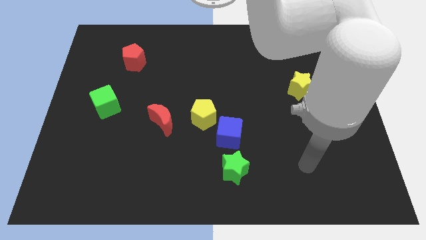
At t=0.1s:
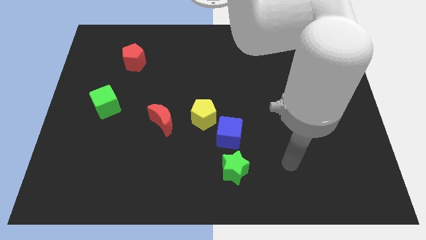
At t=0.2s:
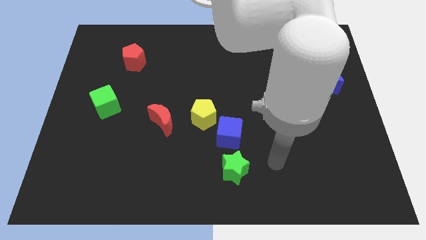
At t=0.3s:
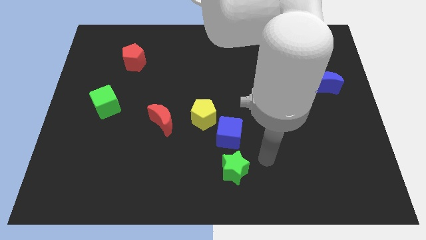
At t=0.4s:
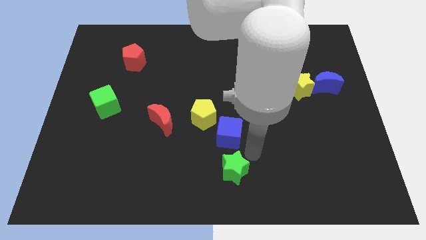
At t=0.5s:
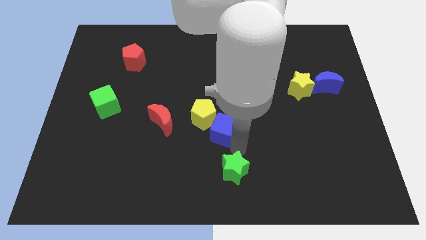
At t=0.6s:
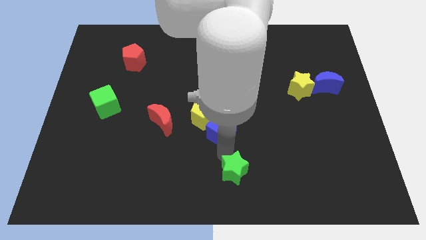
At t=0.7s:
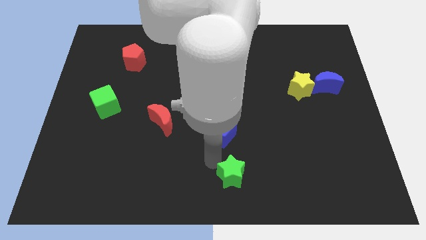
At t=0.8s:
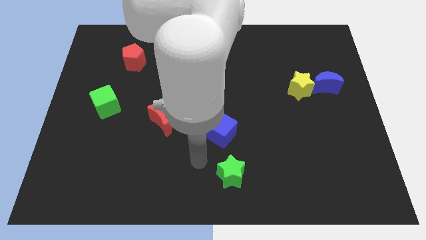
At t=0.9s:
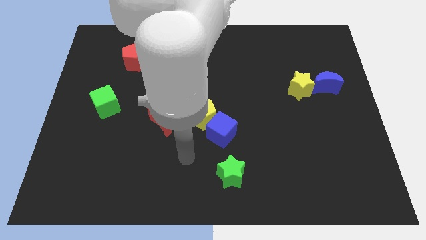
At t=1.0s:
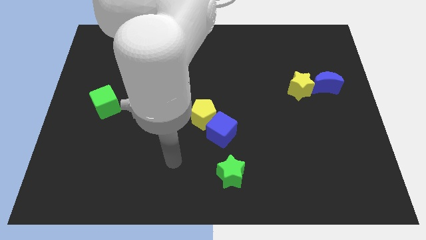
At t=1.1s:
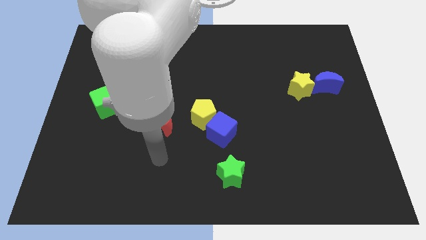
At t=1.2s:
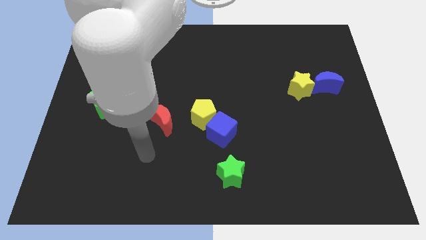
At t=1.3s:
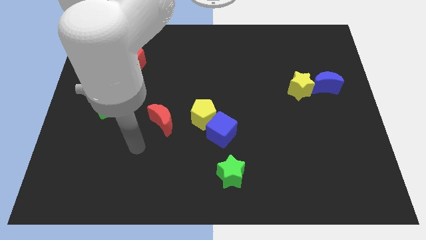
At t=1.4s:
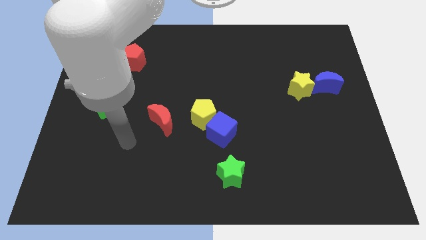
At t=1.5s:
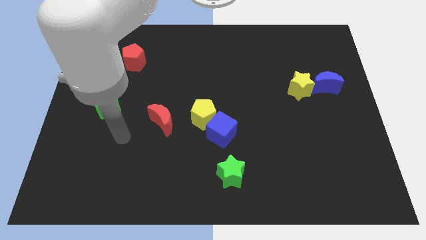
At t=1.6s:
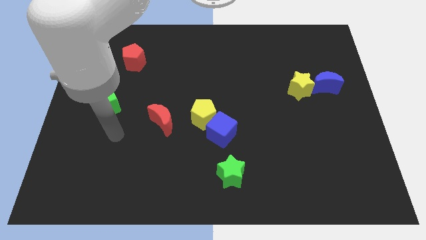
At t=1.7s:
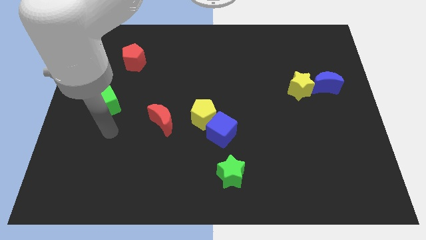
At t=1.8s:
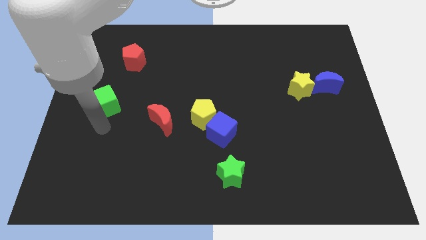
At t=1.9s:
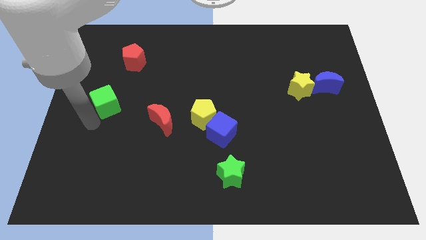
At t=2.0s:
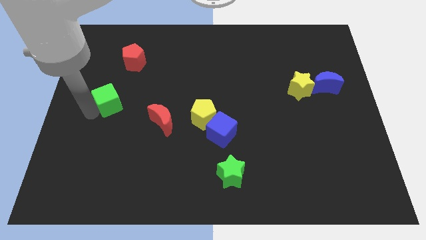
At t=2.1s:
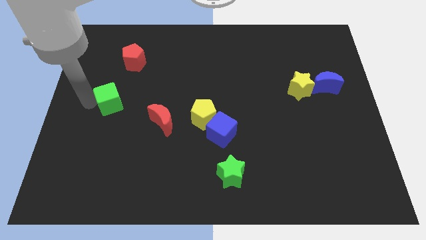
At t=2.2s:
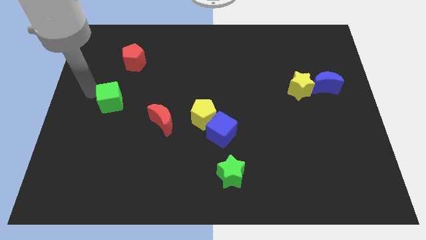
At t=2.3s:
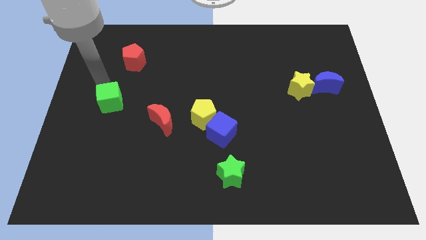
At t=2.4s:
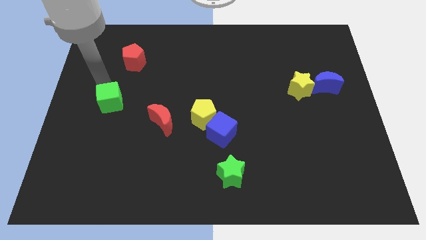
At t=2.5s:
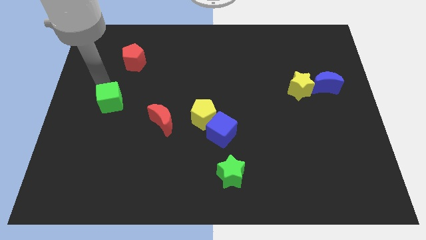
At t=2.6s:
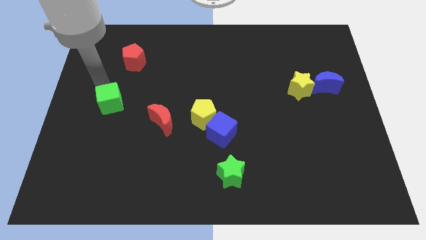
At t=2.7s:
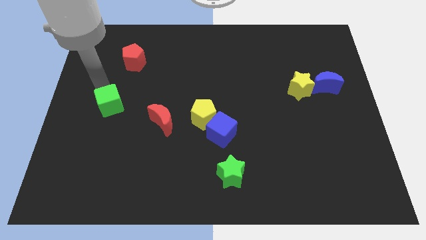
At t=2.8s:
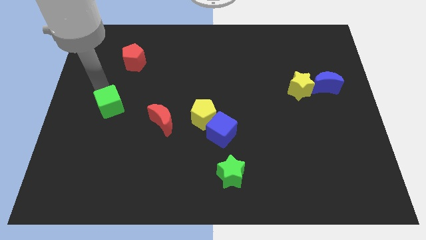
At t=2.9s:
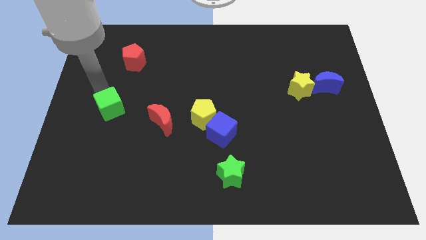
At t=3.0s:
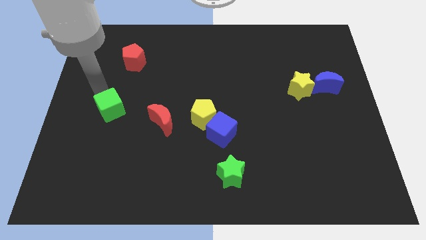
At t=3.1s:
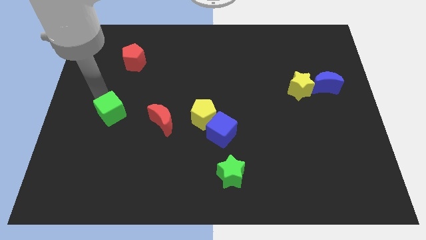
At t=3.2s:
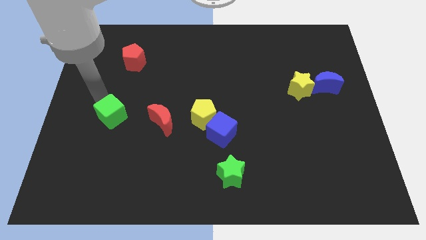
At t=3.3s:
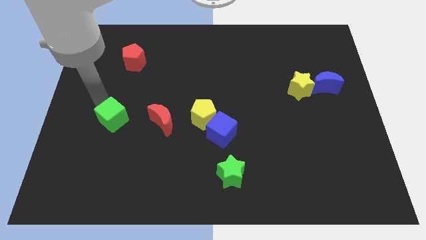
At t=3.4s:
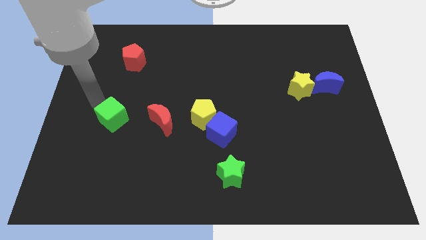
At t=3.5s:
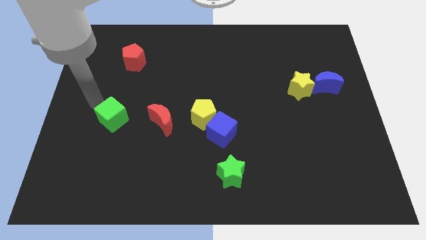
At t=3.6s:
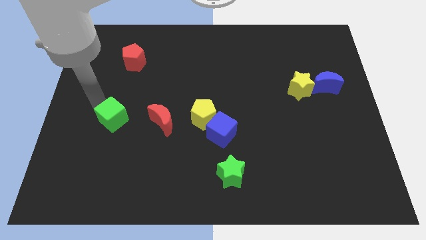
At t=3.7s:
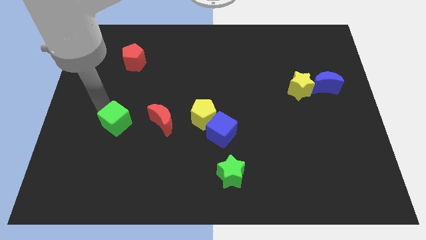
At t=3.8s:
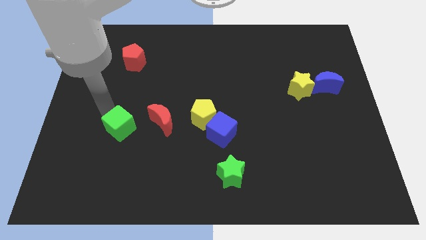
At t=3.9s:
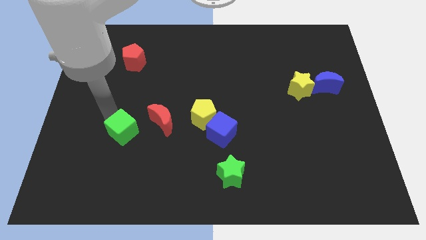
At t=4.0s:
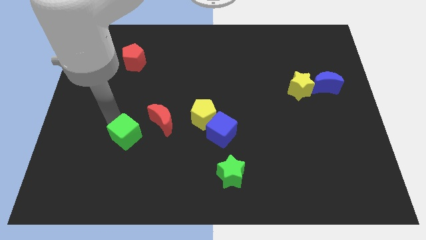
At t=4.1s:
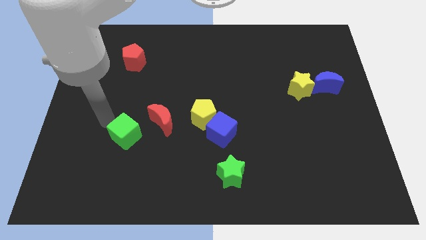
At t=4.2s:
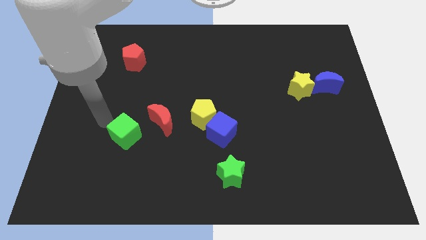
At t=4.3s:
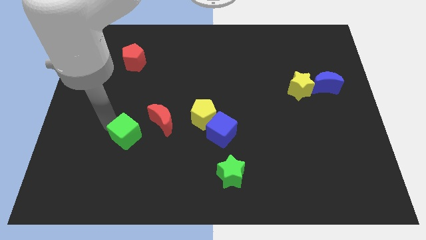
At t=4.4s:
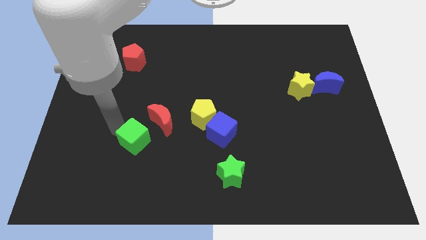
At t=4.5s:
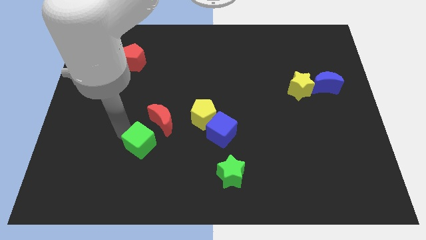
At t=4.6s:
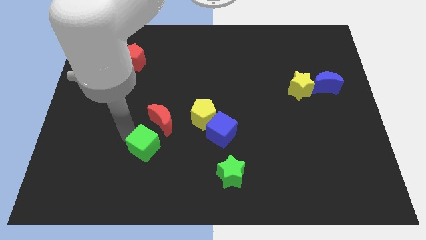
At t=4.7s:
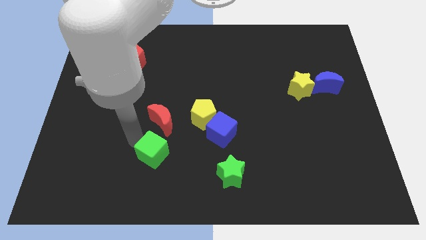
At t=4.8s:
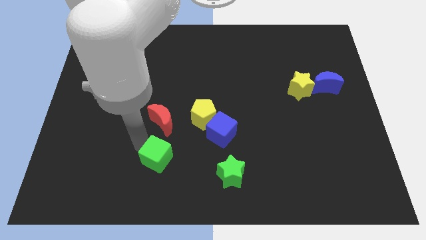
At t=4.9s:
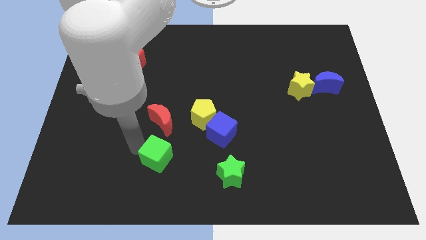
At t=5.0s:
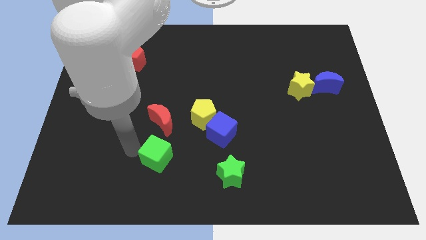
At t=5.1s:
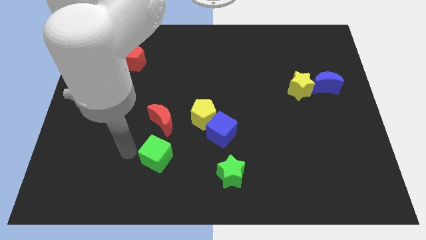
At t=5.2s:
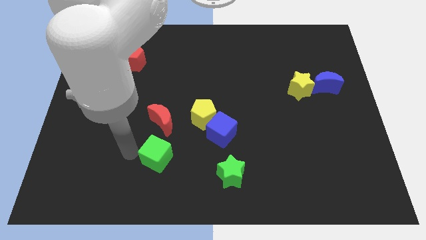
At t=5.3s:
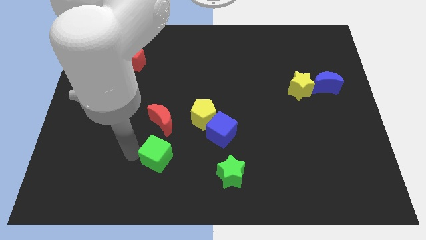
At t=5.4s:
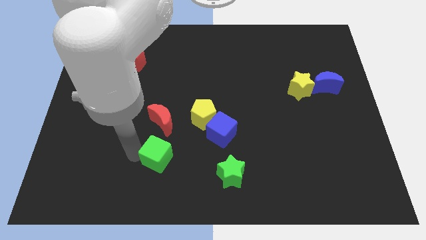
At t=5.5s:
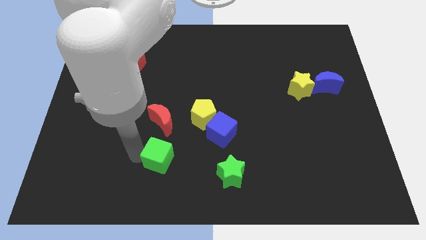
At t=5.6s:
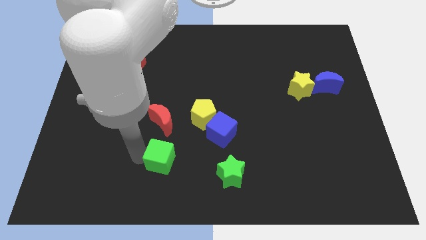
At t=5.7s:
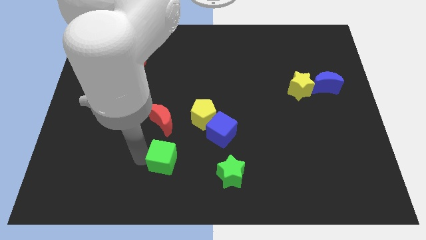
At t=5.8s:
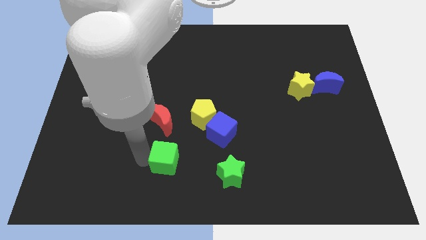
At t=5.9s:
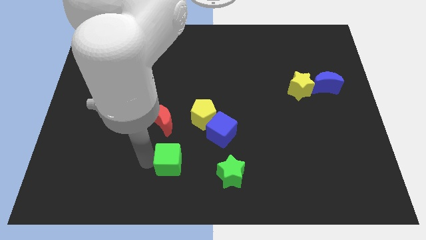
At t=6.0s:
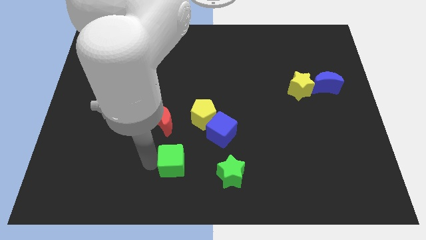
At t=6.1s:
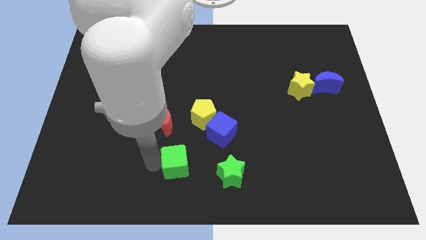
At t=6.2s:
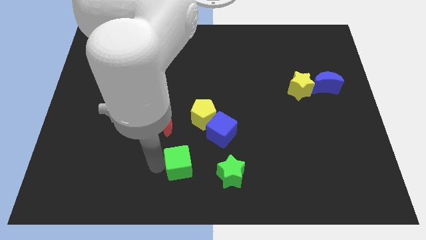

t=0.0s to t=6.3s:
put the green cube below the yellow pentagon

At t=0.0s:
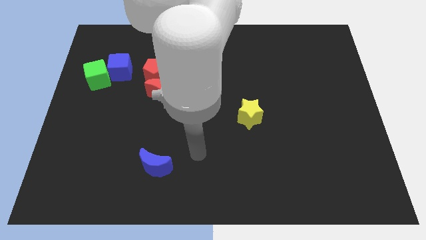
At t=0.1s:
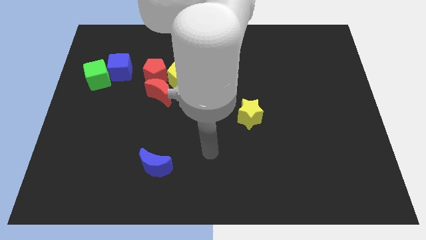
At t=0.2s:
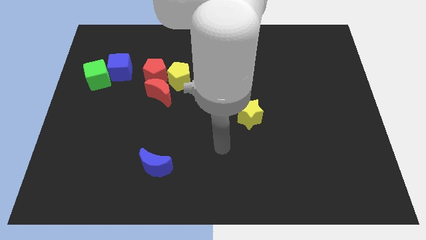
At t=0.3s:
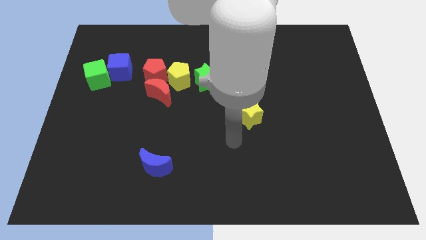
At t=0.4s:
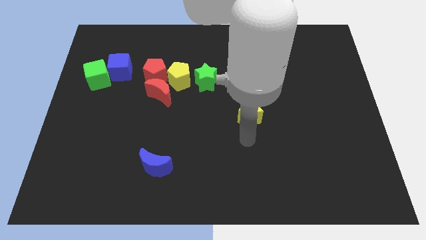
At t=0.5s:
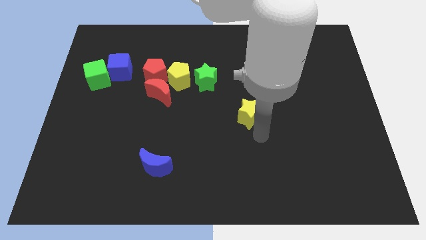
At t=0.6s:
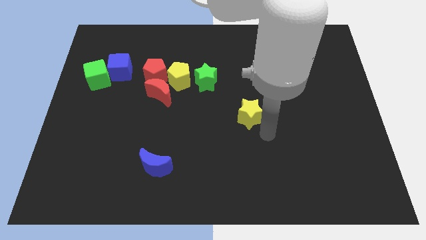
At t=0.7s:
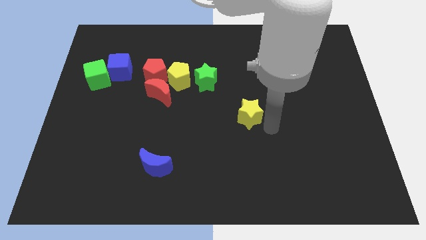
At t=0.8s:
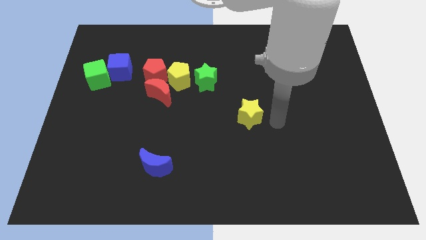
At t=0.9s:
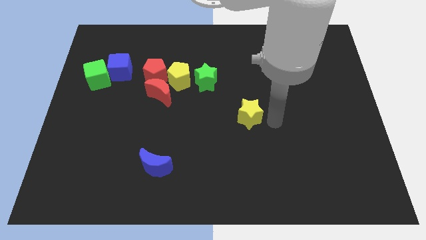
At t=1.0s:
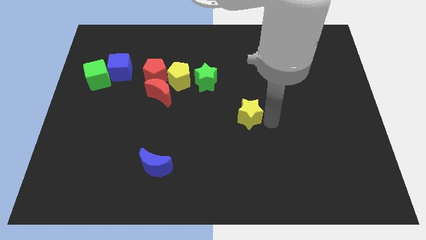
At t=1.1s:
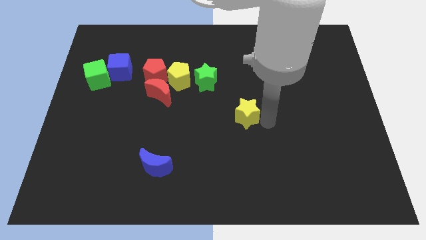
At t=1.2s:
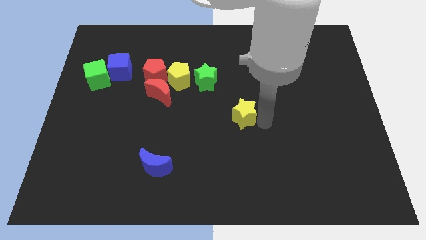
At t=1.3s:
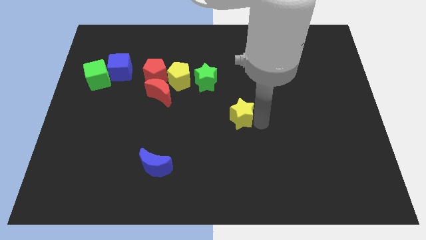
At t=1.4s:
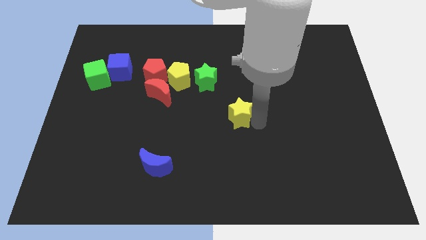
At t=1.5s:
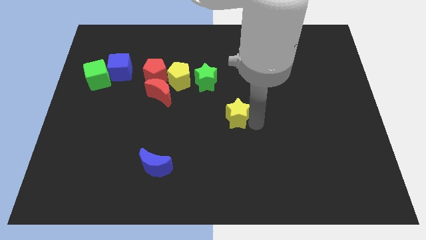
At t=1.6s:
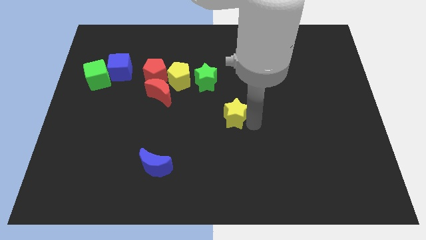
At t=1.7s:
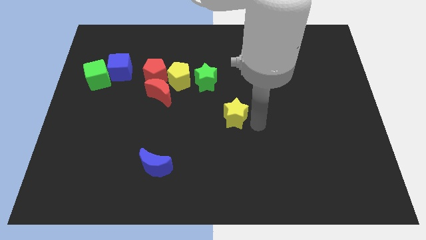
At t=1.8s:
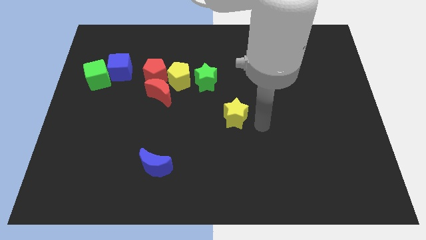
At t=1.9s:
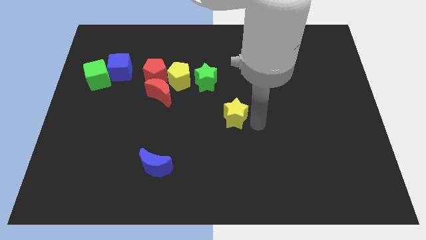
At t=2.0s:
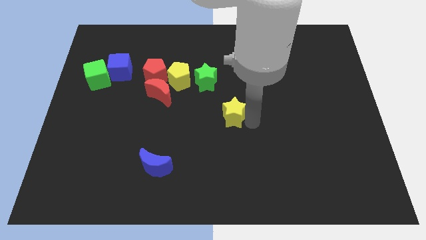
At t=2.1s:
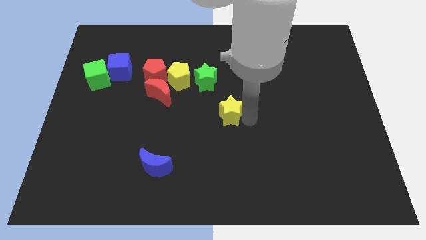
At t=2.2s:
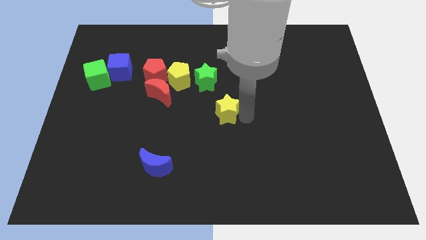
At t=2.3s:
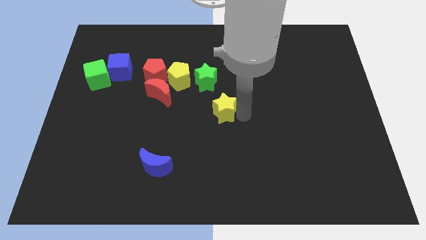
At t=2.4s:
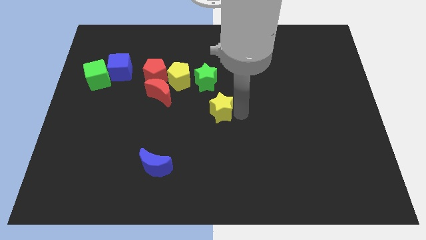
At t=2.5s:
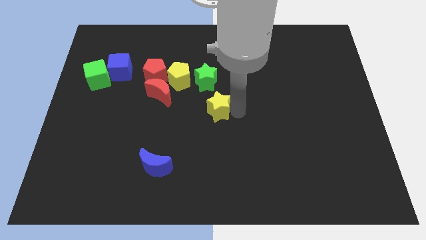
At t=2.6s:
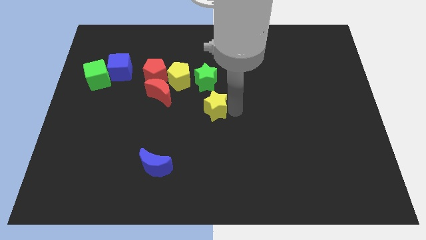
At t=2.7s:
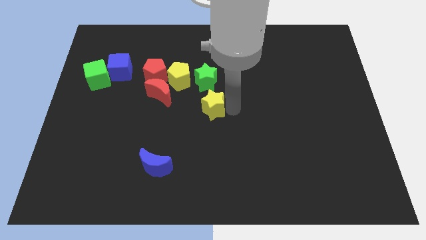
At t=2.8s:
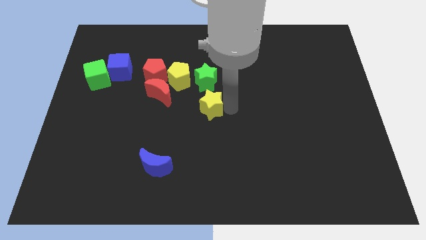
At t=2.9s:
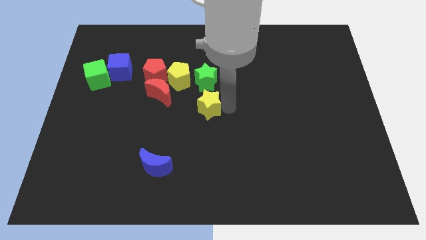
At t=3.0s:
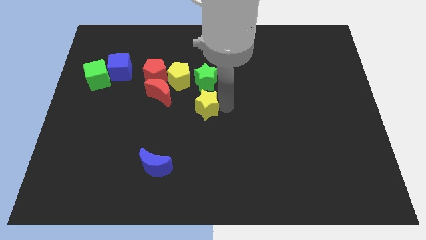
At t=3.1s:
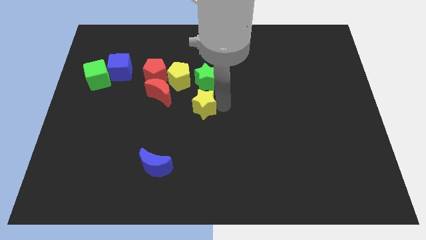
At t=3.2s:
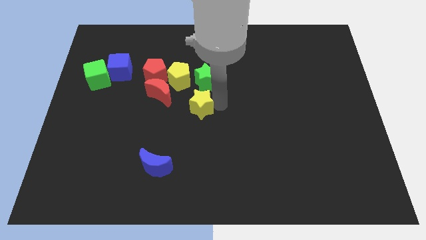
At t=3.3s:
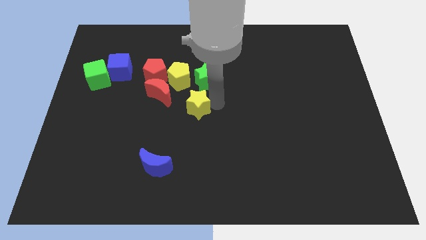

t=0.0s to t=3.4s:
slide the yellow star below the yellow pentagon
